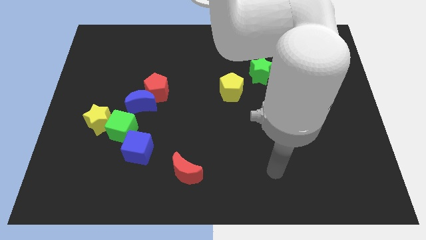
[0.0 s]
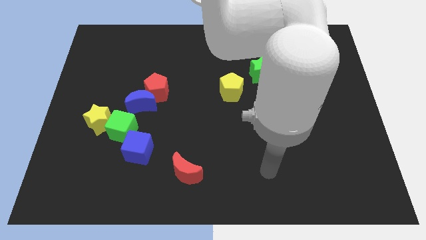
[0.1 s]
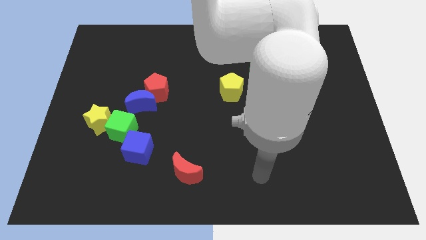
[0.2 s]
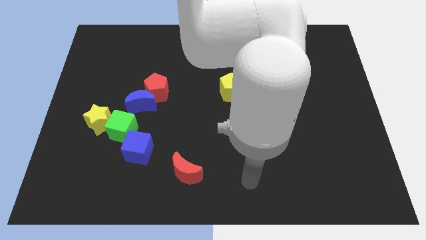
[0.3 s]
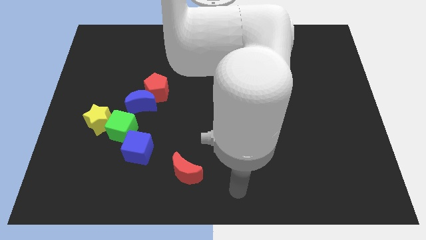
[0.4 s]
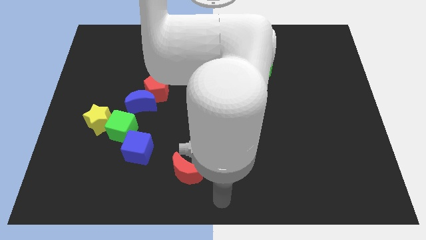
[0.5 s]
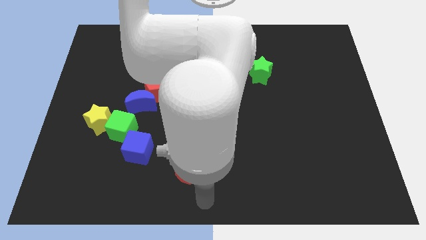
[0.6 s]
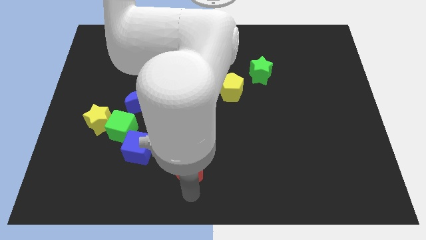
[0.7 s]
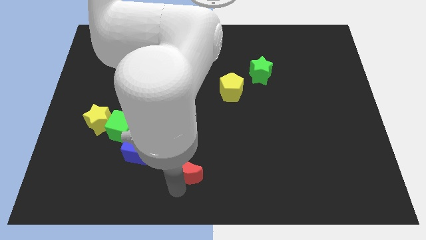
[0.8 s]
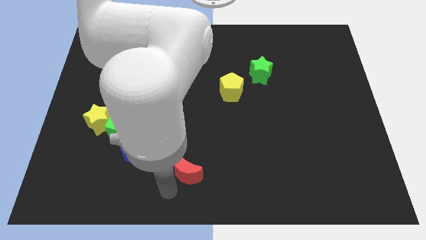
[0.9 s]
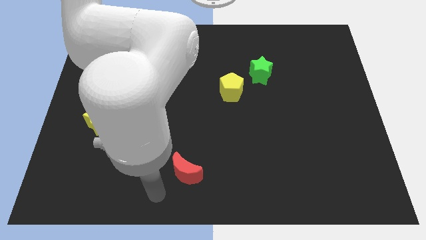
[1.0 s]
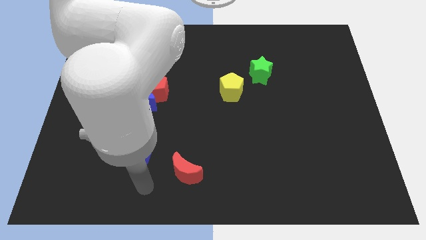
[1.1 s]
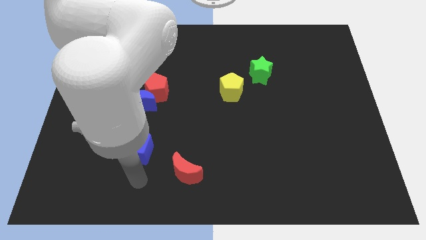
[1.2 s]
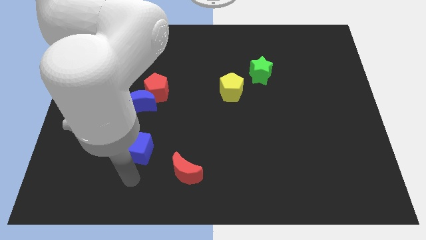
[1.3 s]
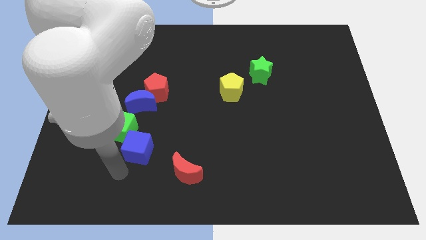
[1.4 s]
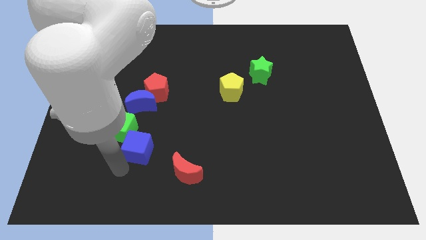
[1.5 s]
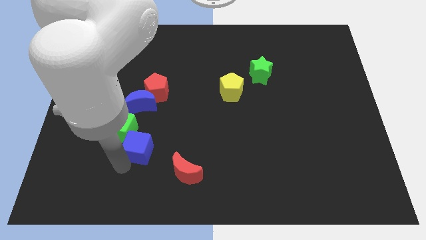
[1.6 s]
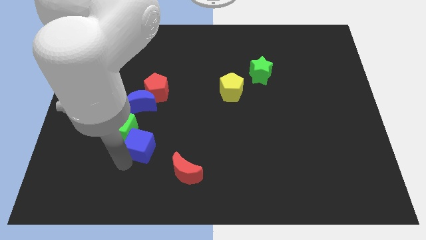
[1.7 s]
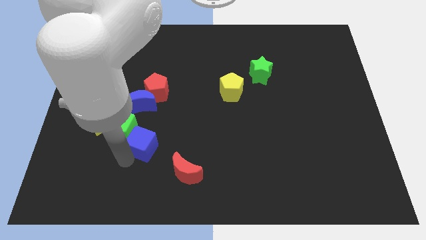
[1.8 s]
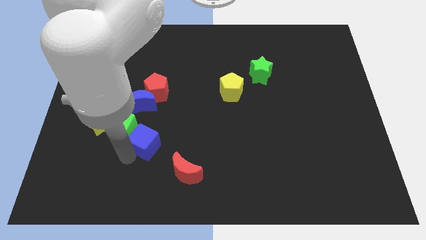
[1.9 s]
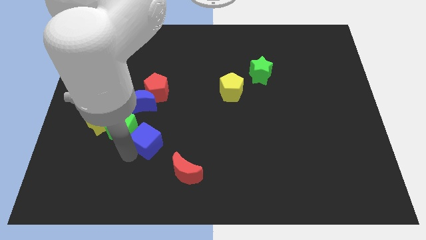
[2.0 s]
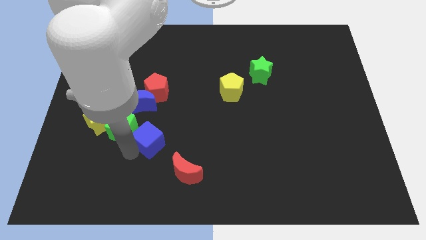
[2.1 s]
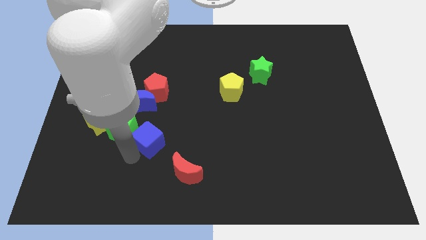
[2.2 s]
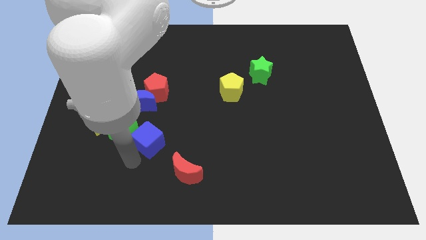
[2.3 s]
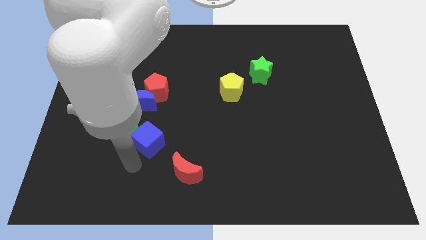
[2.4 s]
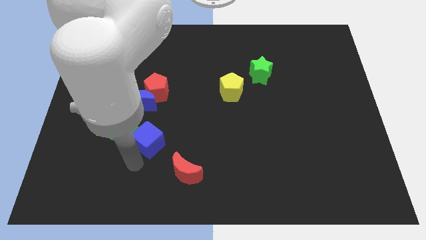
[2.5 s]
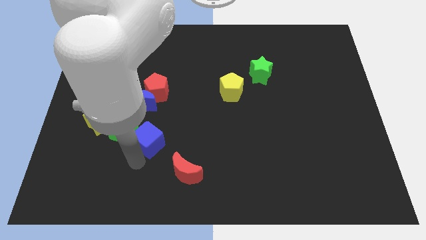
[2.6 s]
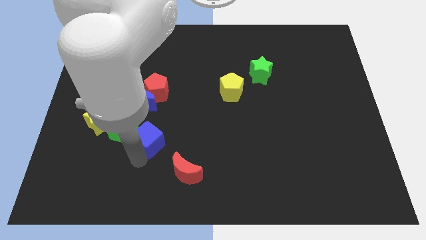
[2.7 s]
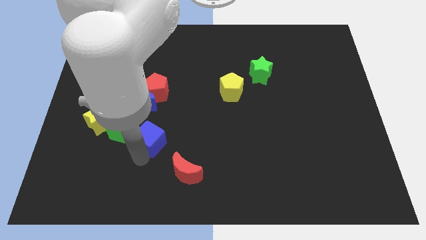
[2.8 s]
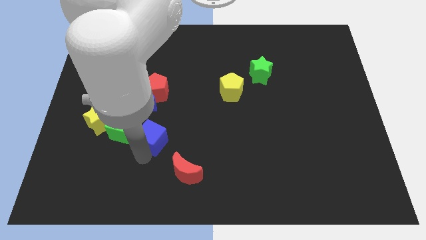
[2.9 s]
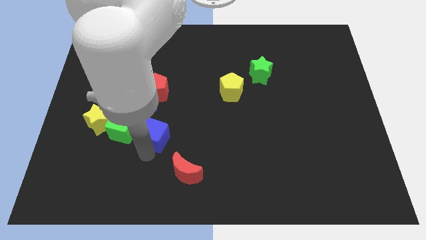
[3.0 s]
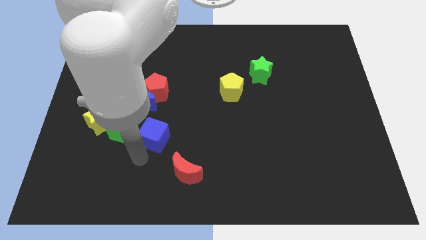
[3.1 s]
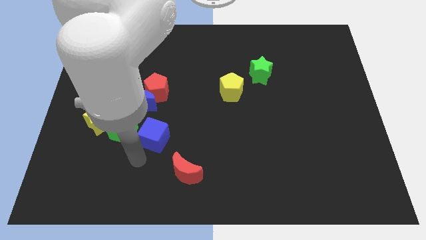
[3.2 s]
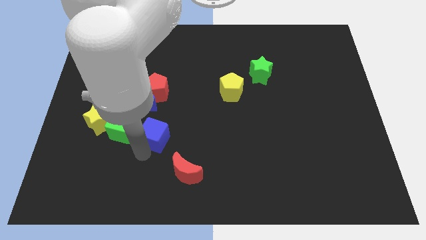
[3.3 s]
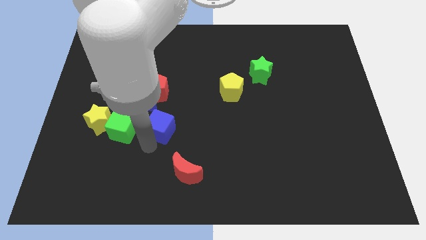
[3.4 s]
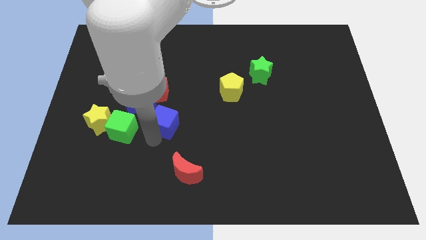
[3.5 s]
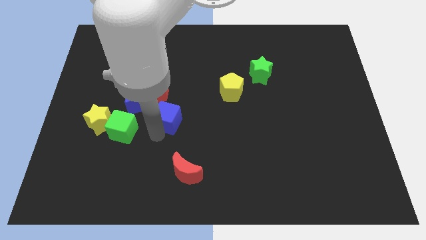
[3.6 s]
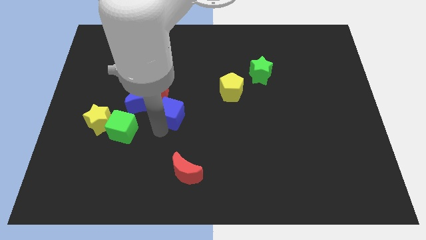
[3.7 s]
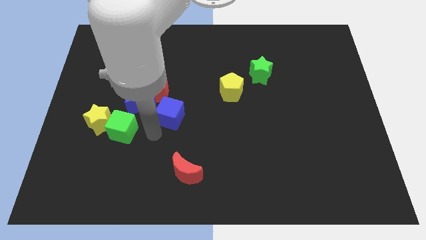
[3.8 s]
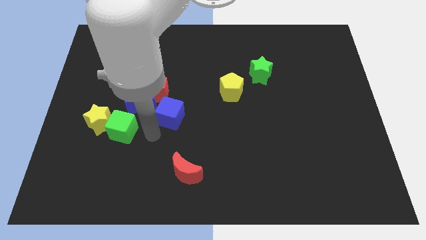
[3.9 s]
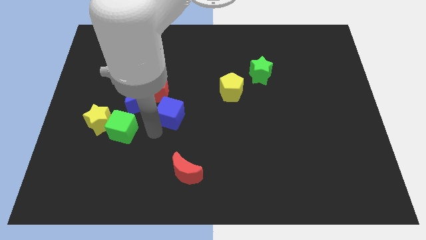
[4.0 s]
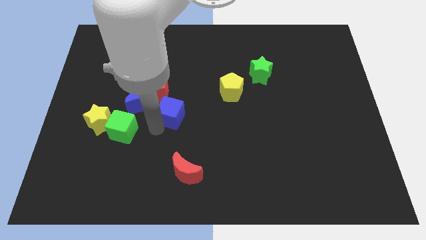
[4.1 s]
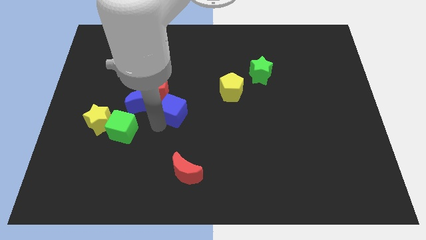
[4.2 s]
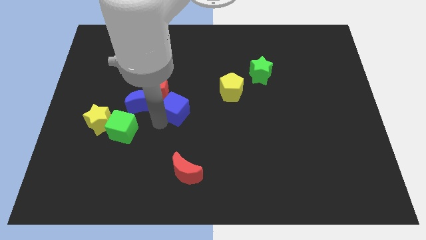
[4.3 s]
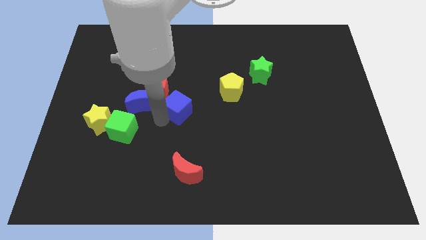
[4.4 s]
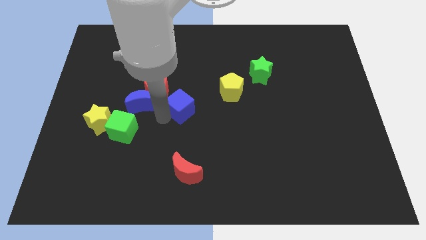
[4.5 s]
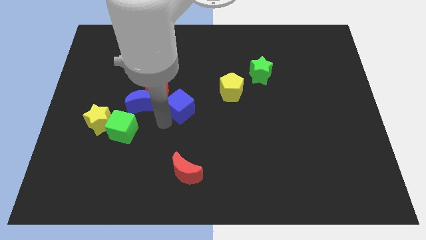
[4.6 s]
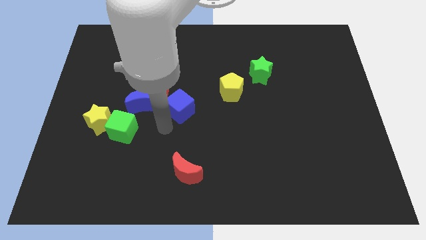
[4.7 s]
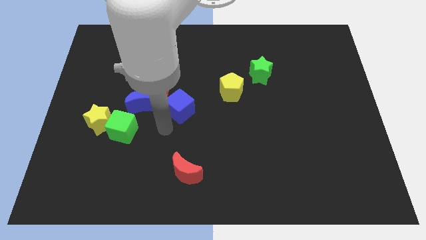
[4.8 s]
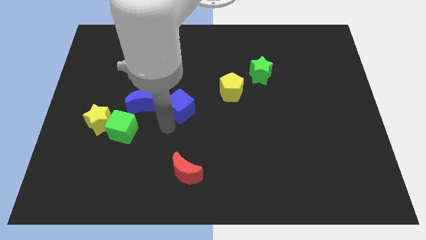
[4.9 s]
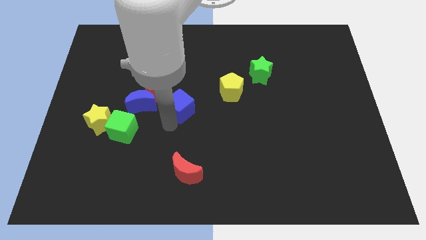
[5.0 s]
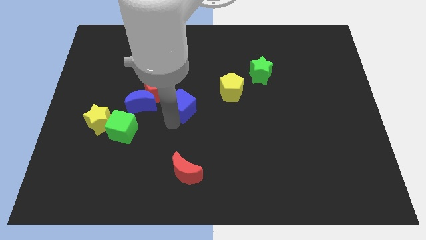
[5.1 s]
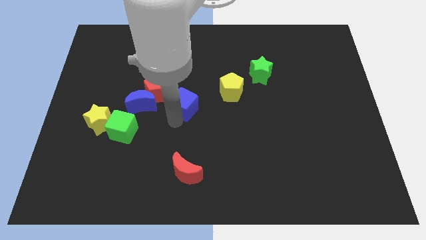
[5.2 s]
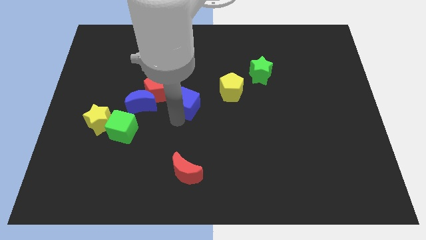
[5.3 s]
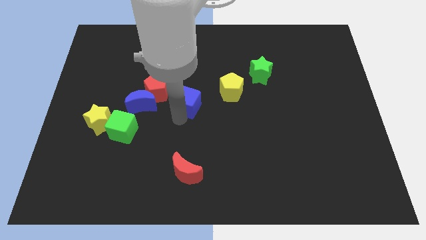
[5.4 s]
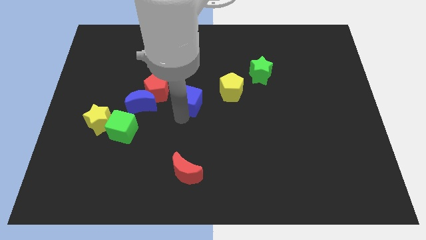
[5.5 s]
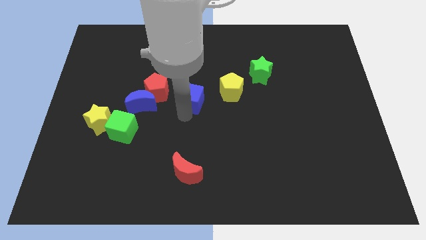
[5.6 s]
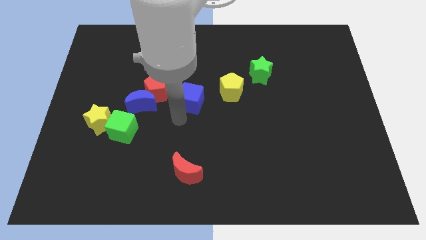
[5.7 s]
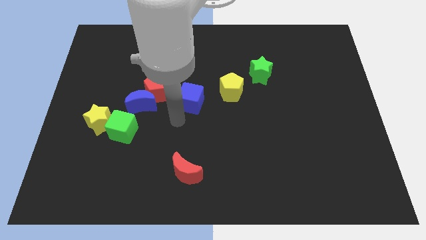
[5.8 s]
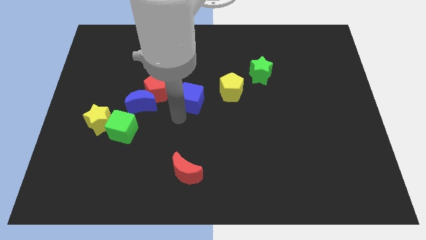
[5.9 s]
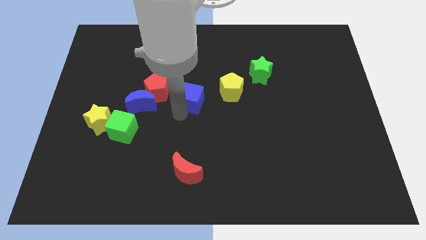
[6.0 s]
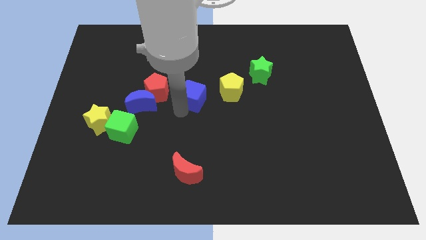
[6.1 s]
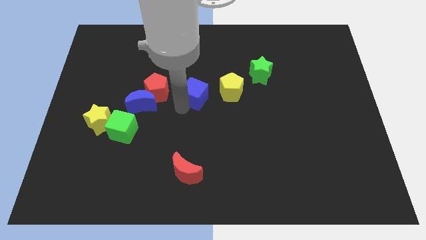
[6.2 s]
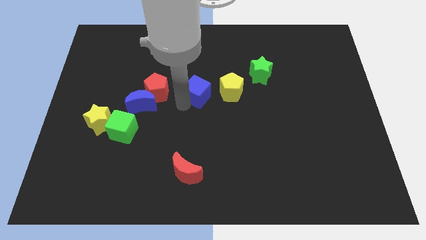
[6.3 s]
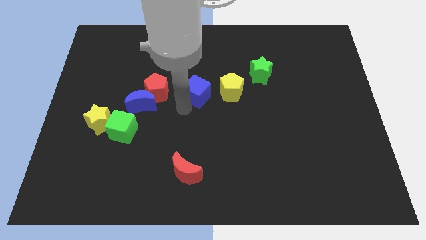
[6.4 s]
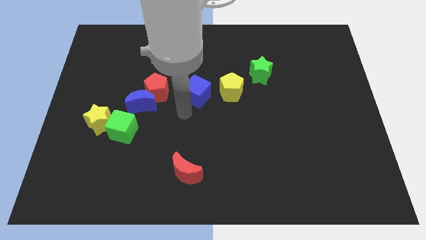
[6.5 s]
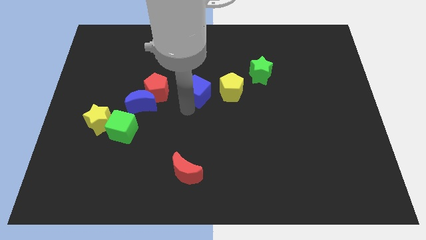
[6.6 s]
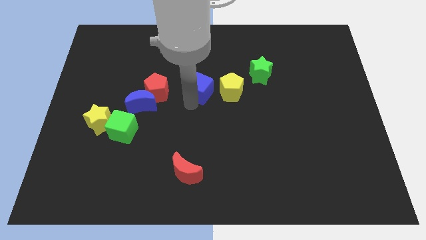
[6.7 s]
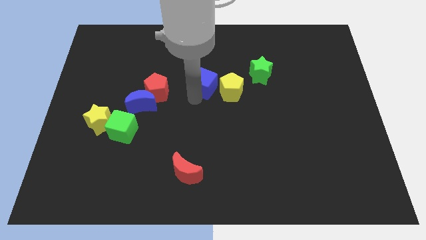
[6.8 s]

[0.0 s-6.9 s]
move the blue cube to the top left side of the yellow pentagon
